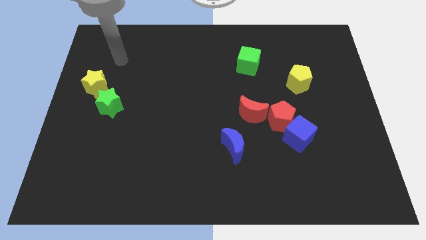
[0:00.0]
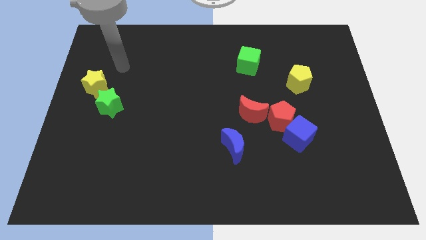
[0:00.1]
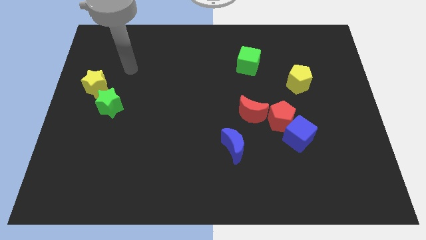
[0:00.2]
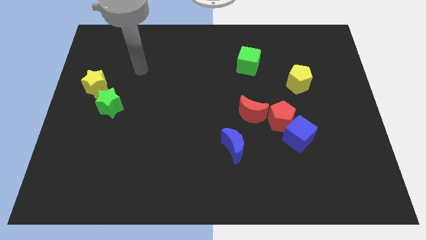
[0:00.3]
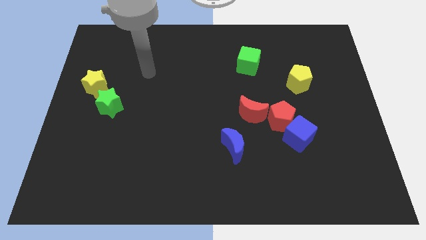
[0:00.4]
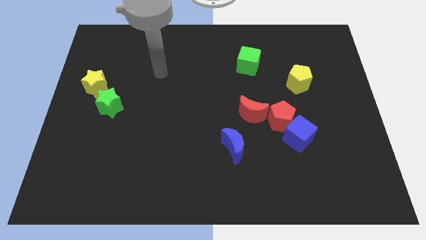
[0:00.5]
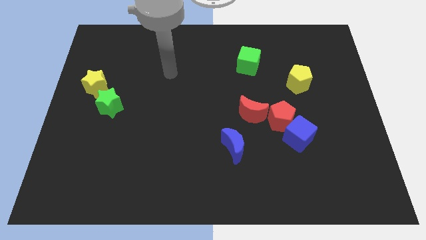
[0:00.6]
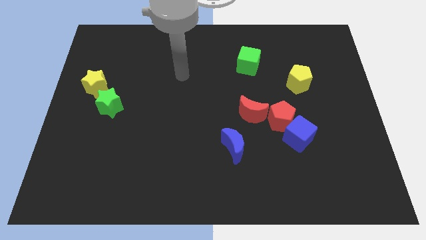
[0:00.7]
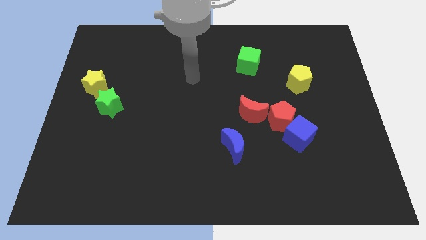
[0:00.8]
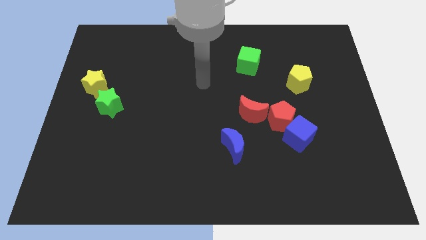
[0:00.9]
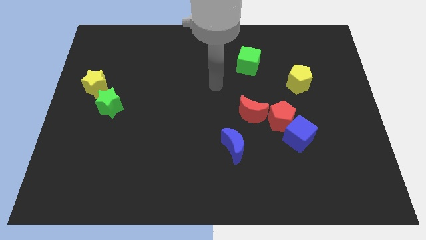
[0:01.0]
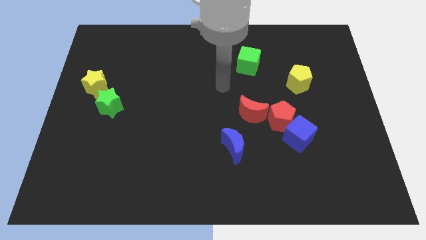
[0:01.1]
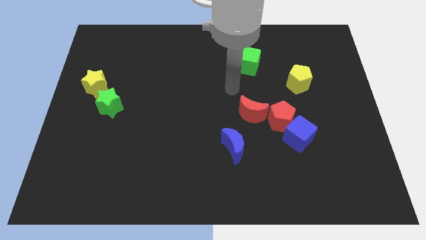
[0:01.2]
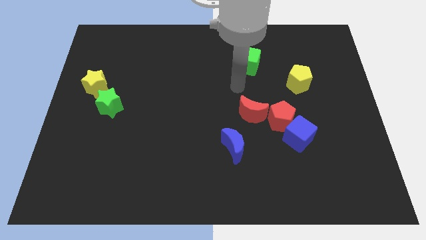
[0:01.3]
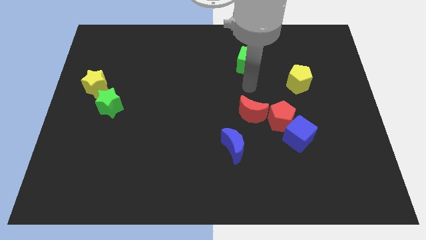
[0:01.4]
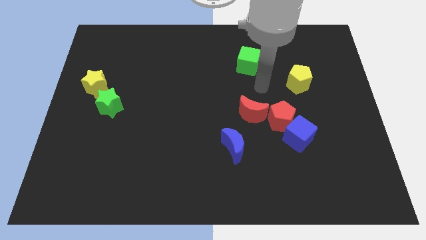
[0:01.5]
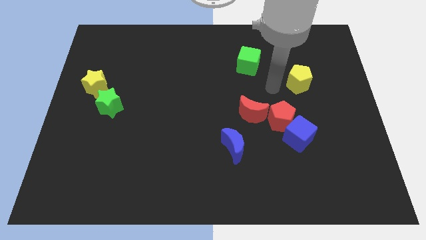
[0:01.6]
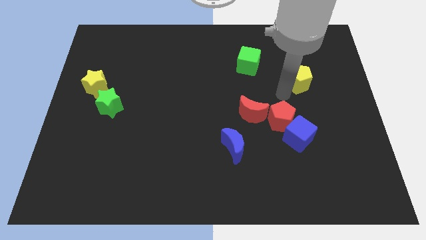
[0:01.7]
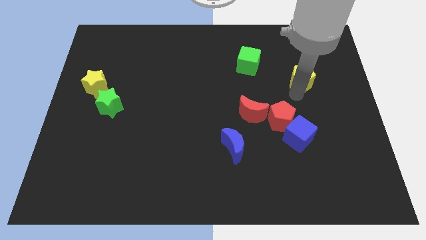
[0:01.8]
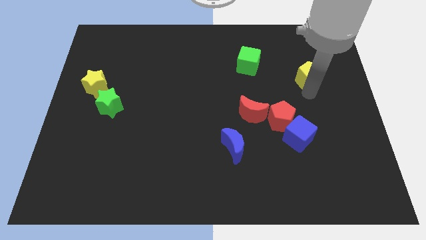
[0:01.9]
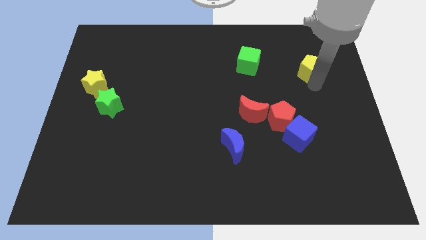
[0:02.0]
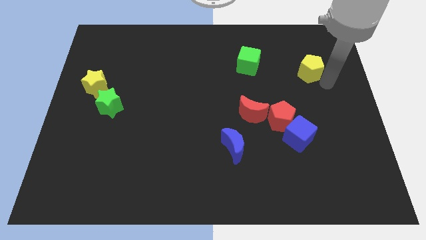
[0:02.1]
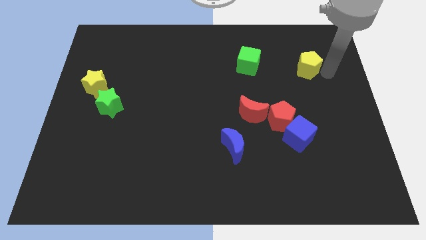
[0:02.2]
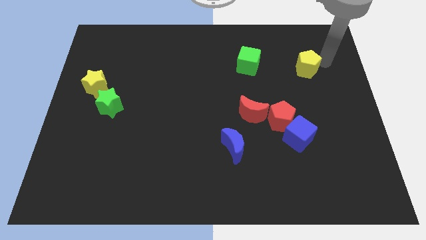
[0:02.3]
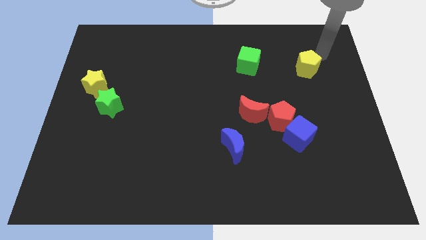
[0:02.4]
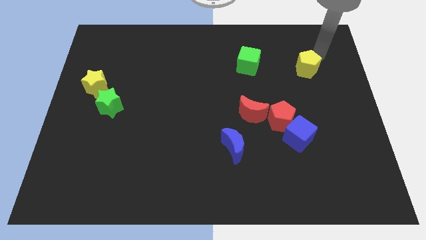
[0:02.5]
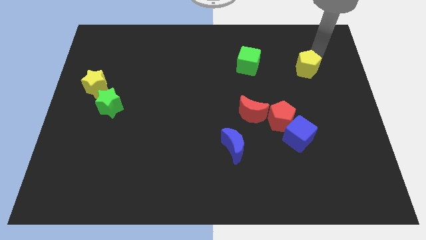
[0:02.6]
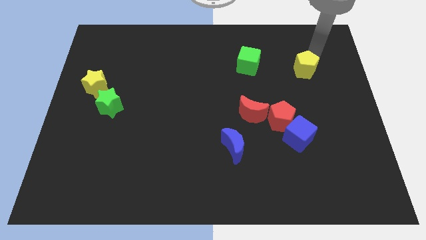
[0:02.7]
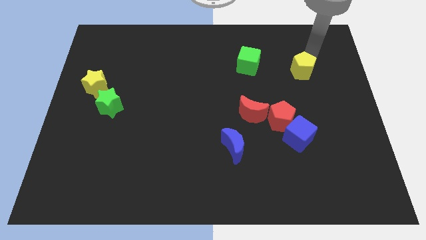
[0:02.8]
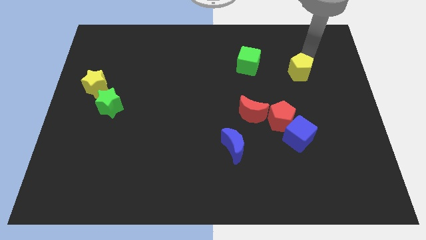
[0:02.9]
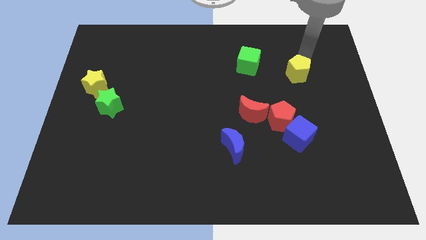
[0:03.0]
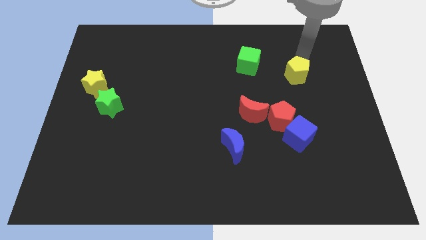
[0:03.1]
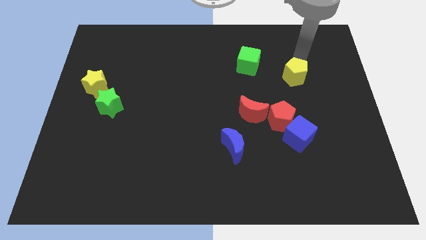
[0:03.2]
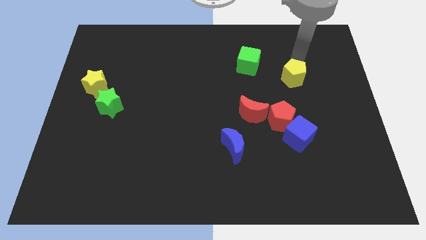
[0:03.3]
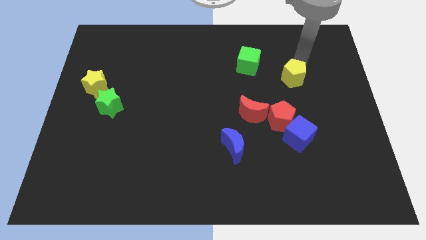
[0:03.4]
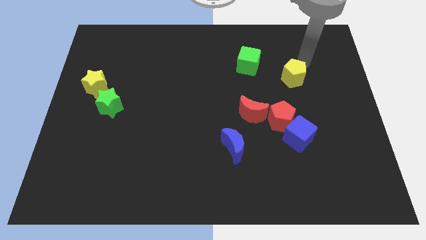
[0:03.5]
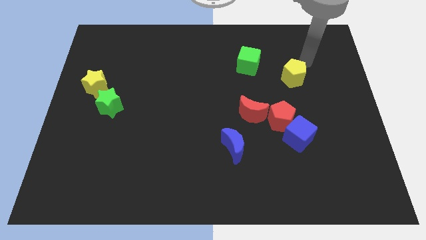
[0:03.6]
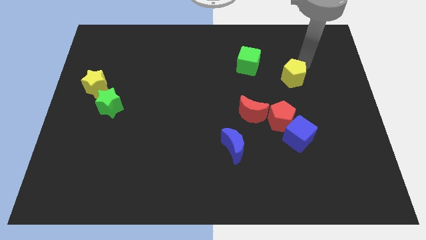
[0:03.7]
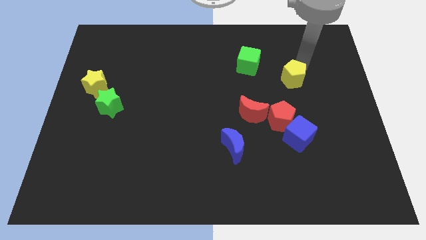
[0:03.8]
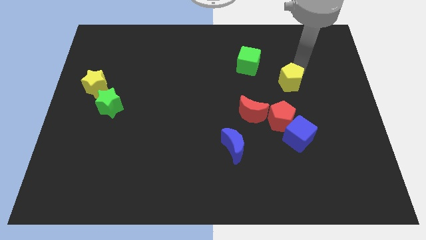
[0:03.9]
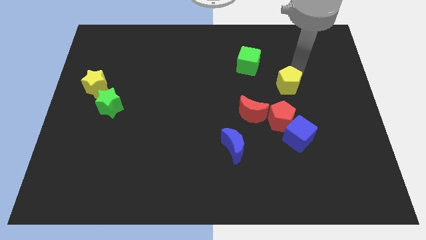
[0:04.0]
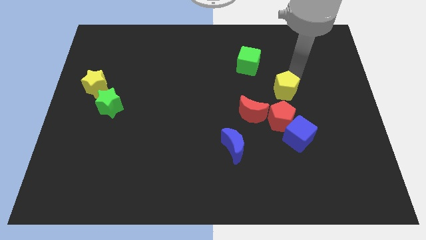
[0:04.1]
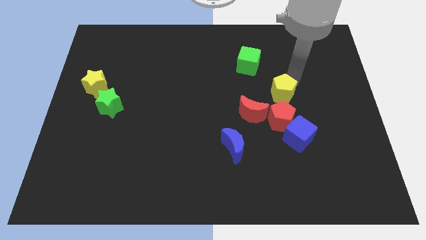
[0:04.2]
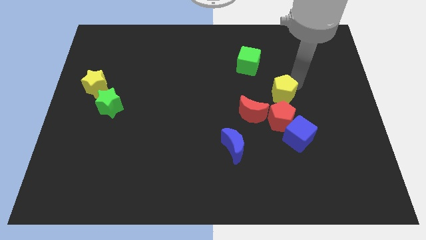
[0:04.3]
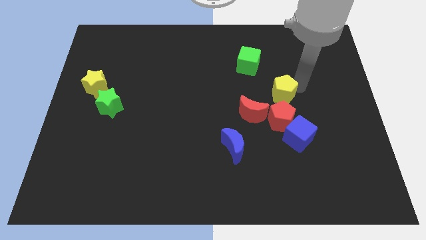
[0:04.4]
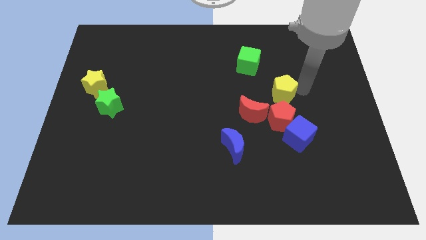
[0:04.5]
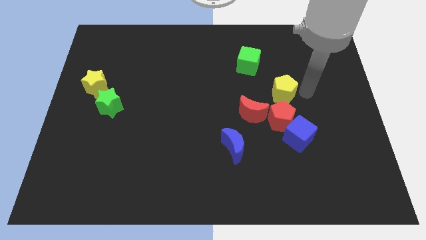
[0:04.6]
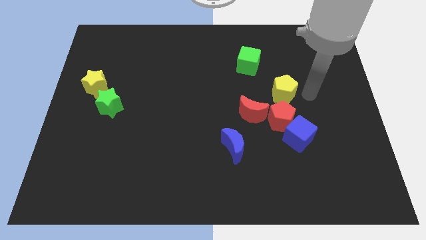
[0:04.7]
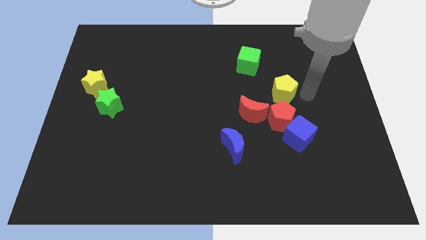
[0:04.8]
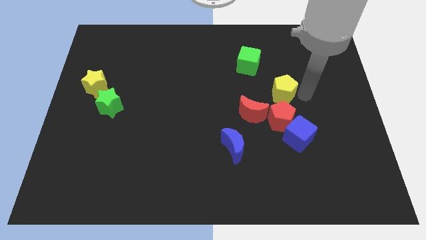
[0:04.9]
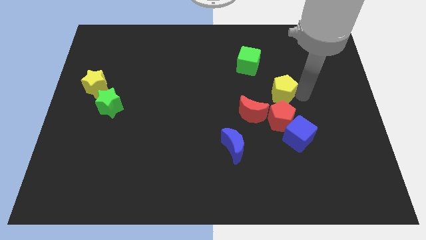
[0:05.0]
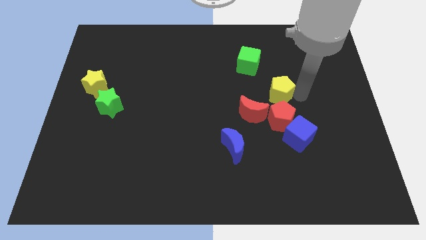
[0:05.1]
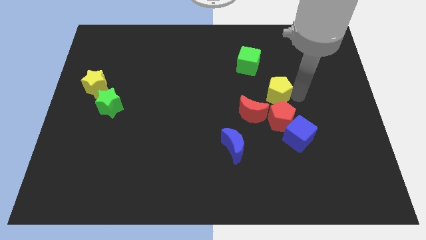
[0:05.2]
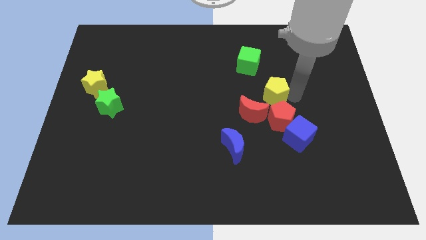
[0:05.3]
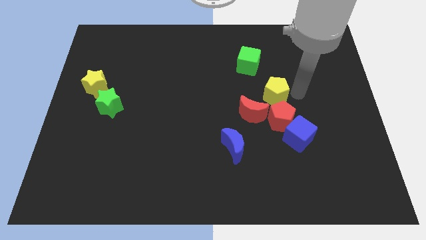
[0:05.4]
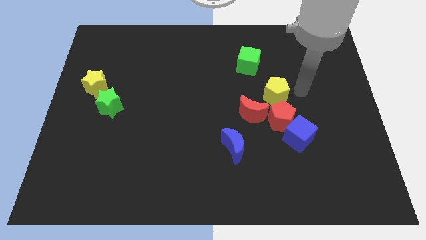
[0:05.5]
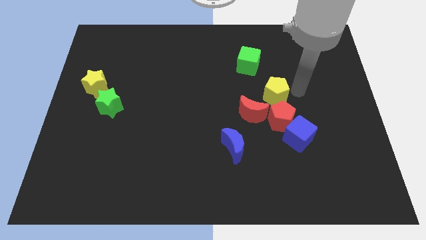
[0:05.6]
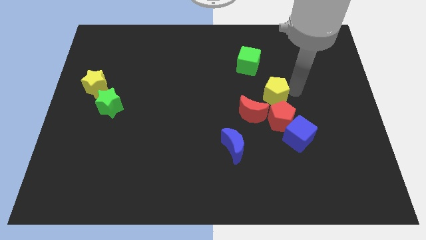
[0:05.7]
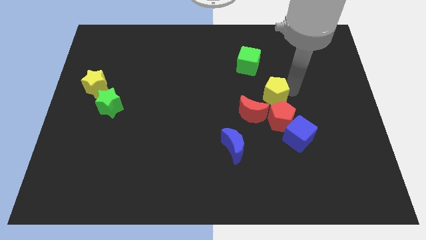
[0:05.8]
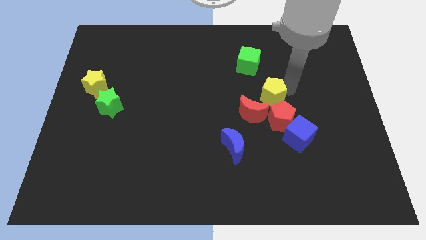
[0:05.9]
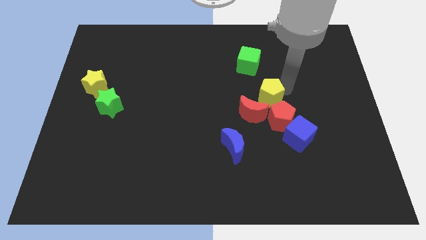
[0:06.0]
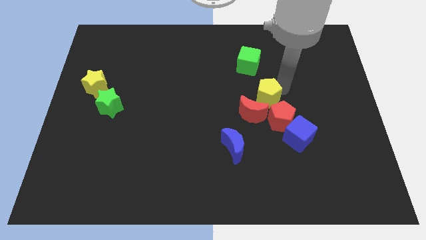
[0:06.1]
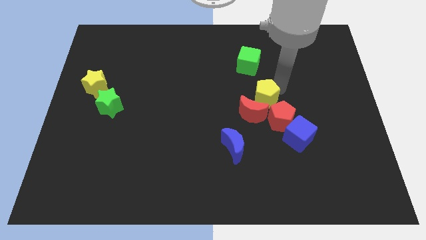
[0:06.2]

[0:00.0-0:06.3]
slide the yellow pentagon to the middle of the board
